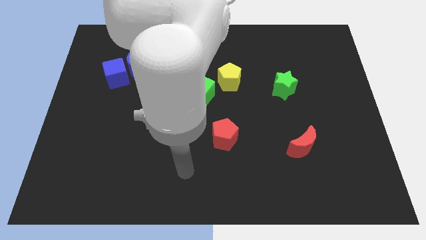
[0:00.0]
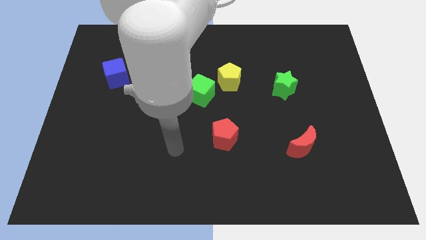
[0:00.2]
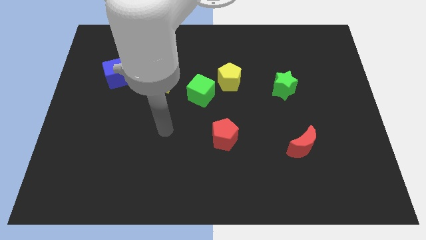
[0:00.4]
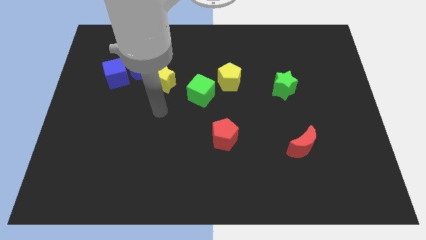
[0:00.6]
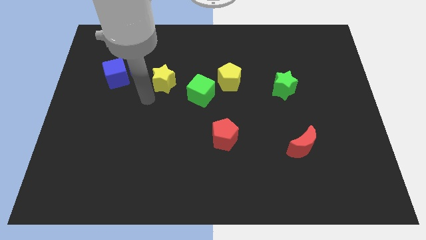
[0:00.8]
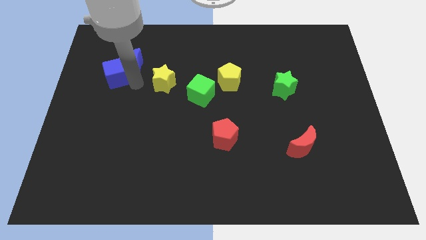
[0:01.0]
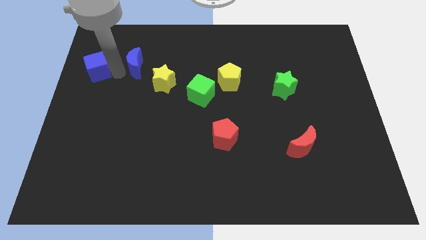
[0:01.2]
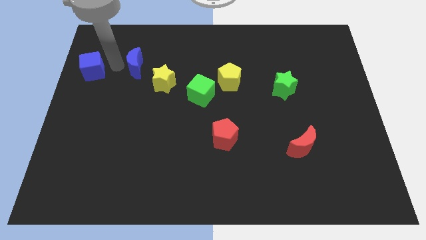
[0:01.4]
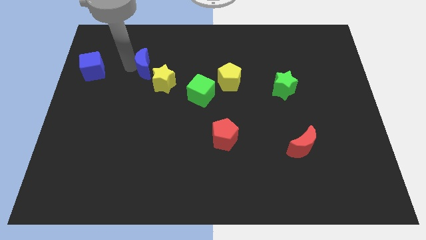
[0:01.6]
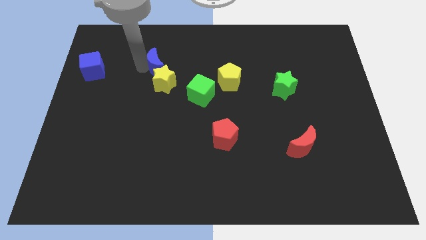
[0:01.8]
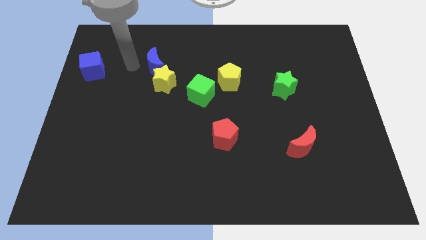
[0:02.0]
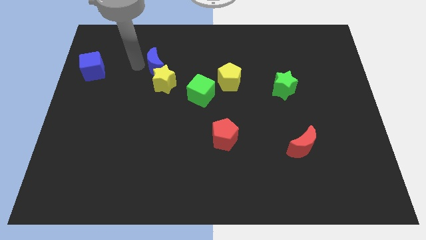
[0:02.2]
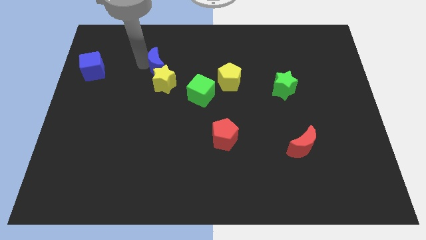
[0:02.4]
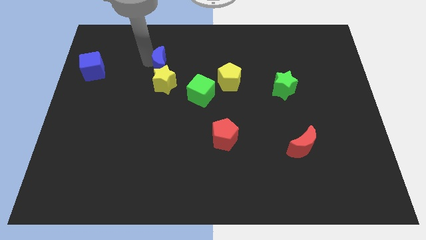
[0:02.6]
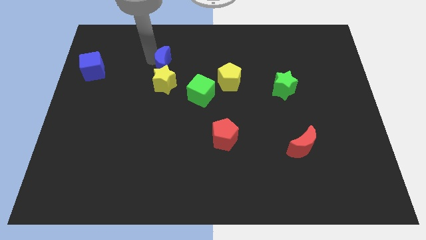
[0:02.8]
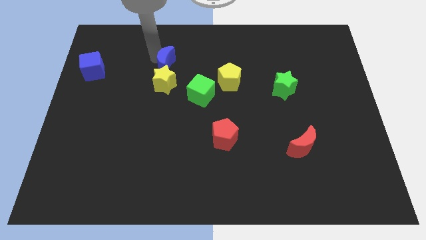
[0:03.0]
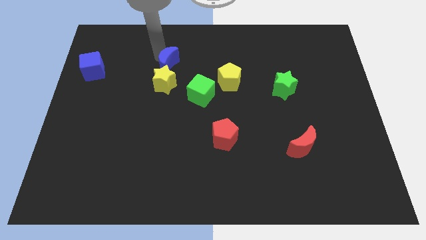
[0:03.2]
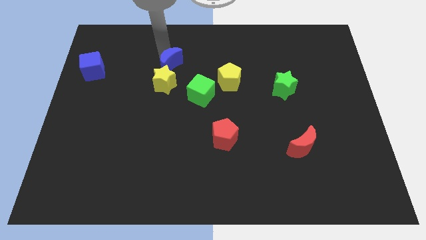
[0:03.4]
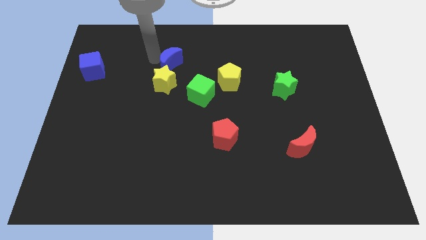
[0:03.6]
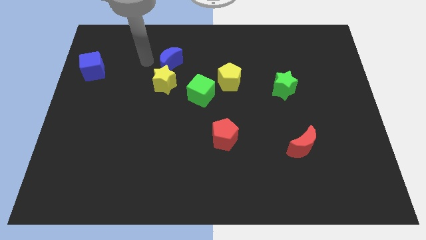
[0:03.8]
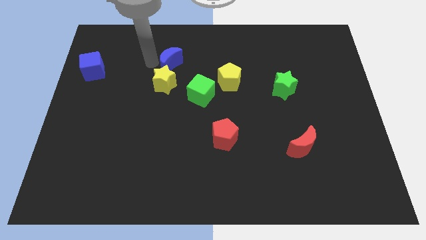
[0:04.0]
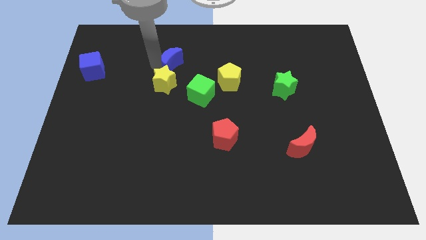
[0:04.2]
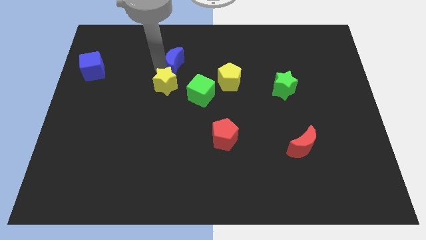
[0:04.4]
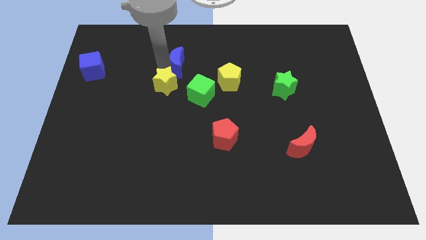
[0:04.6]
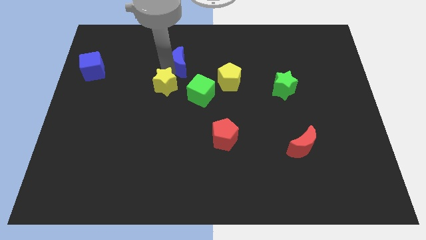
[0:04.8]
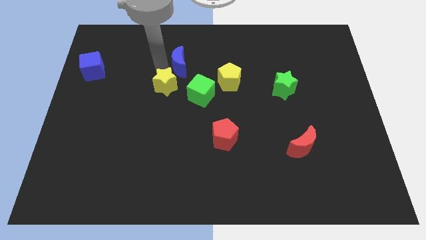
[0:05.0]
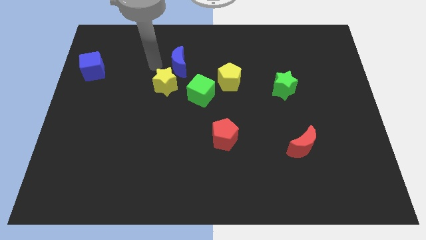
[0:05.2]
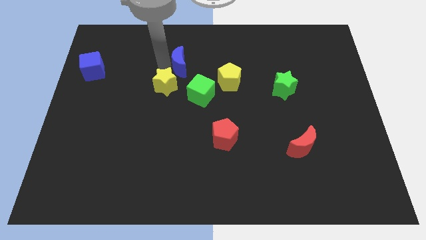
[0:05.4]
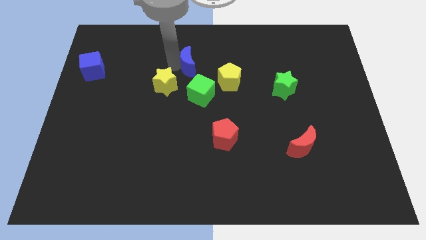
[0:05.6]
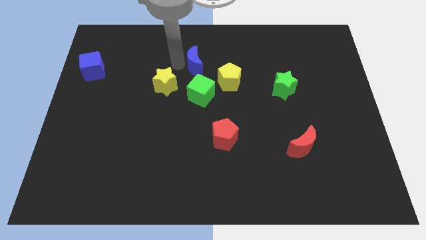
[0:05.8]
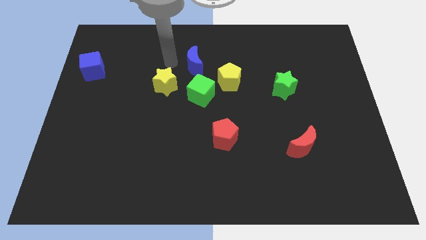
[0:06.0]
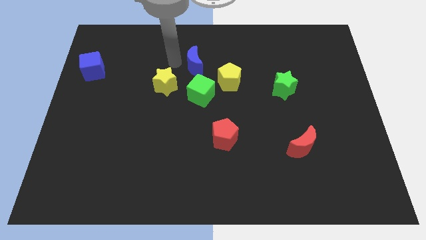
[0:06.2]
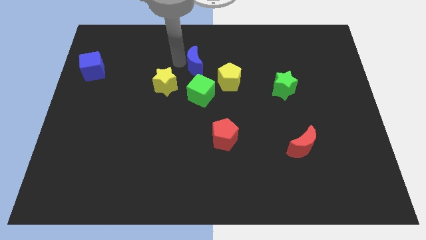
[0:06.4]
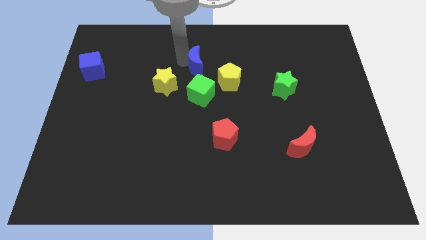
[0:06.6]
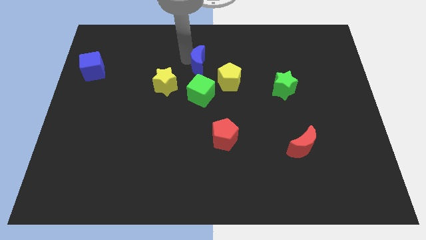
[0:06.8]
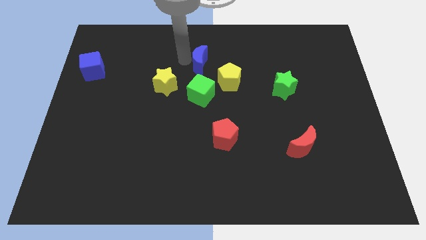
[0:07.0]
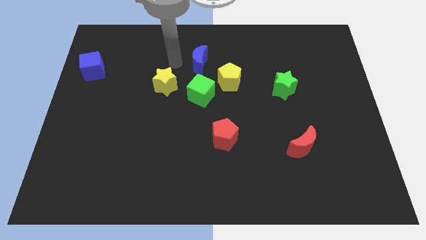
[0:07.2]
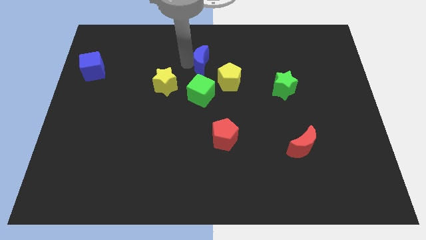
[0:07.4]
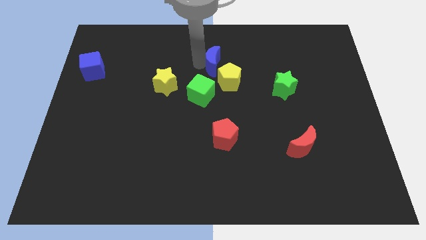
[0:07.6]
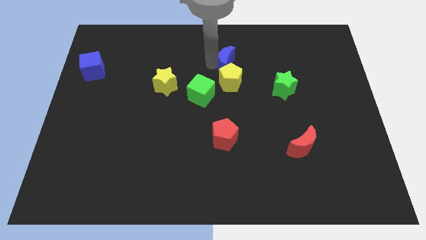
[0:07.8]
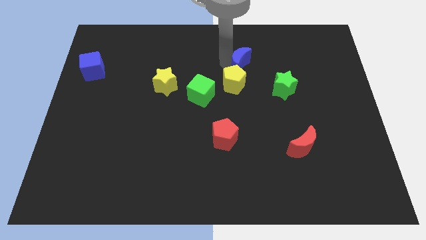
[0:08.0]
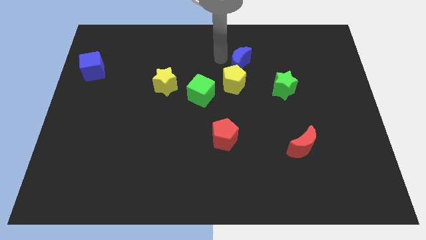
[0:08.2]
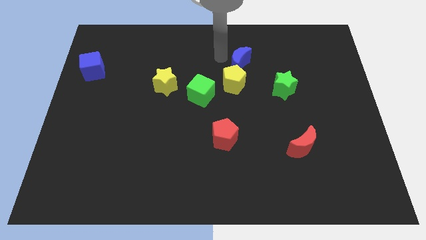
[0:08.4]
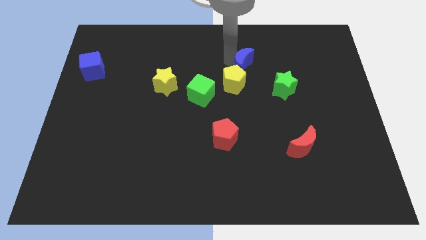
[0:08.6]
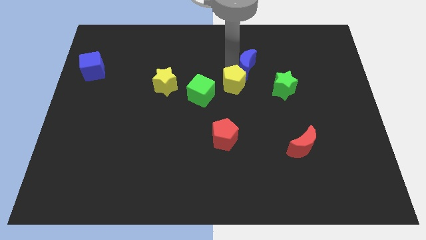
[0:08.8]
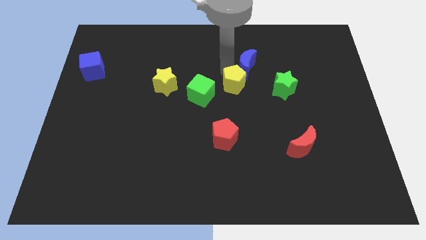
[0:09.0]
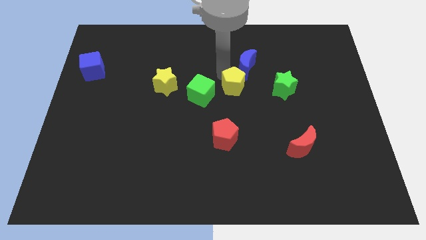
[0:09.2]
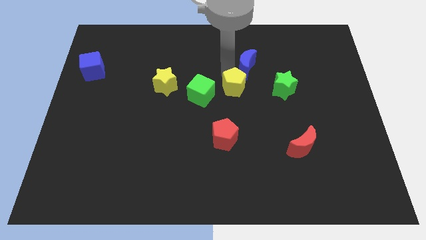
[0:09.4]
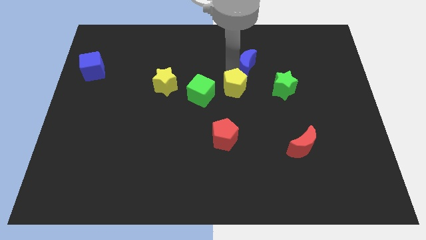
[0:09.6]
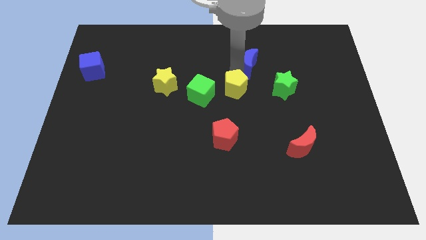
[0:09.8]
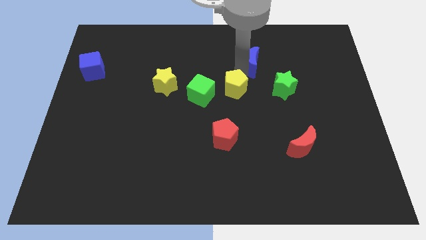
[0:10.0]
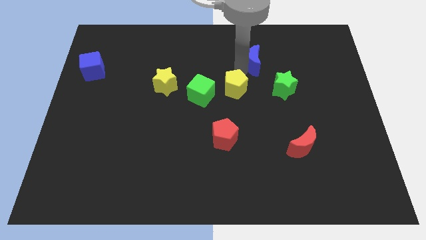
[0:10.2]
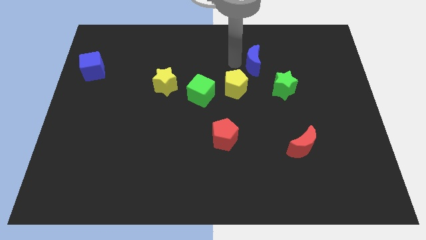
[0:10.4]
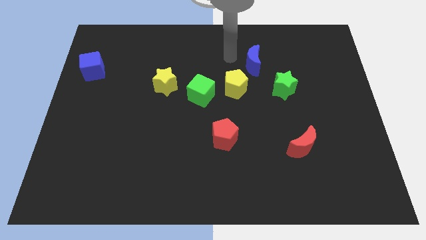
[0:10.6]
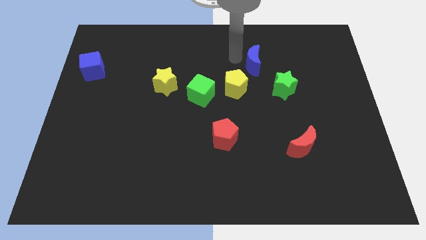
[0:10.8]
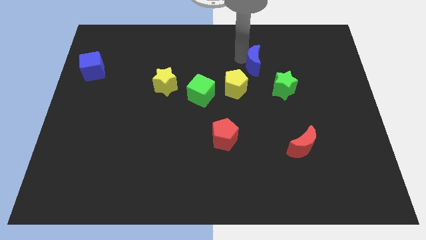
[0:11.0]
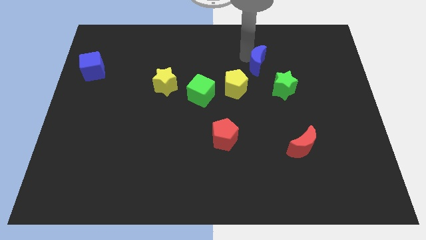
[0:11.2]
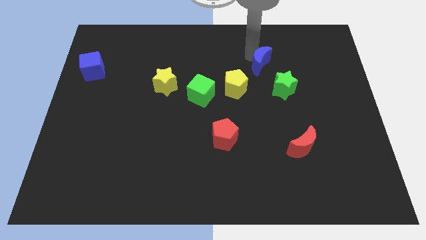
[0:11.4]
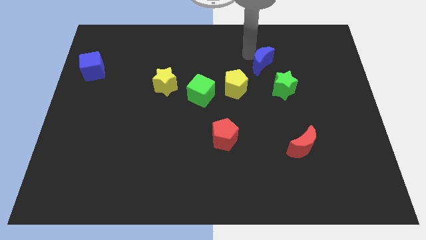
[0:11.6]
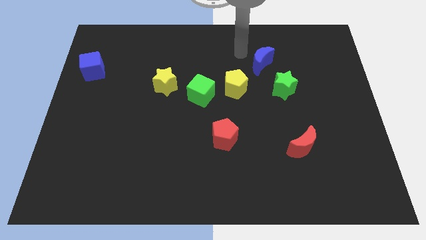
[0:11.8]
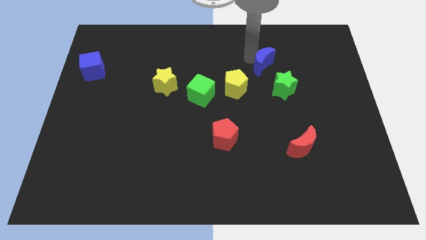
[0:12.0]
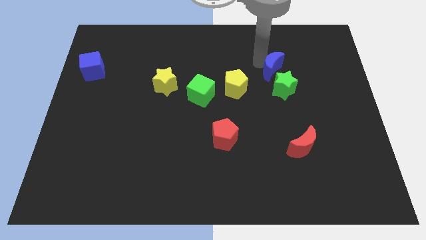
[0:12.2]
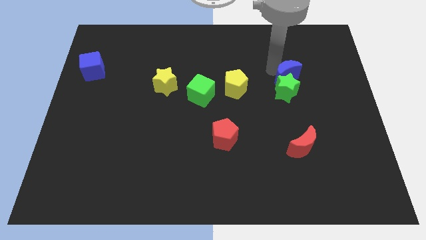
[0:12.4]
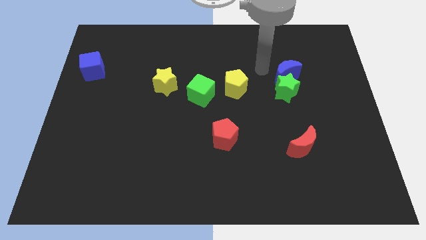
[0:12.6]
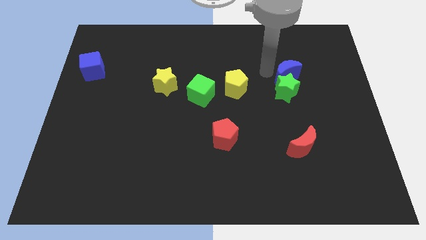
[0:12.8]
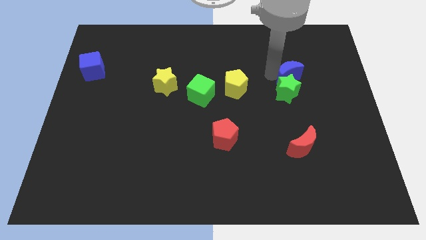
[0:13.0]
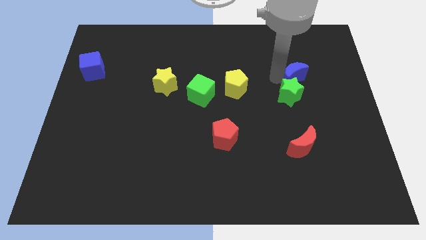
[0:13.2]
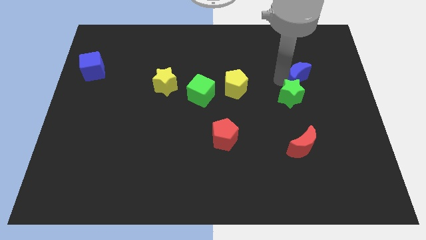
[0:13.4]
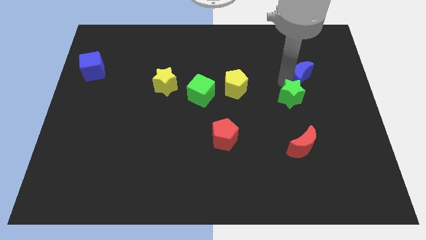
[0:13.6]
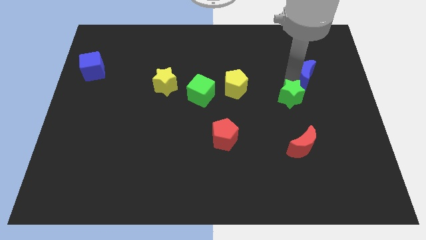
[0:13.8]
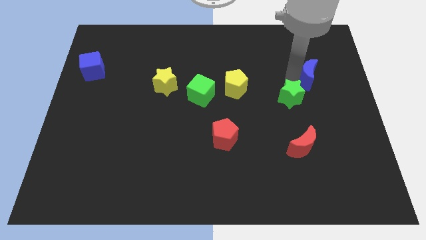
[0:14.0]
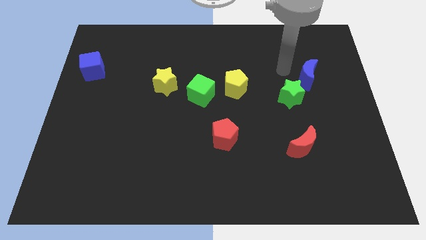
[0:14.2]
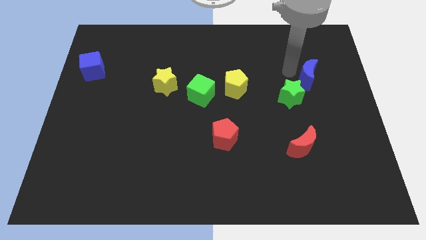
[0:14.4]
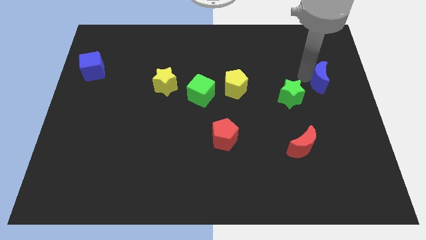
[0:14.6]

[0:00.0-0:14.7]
put the blue moon to the right side of the board
